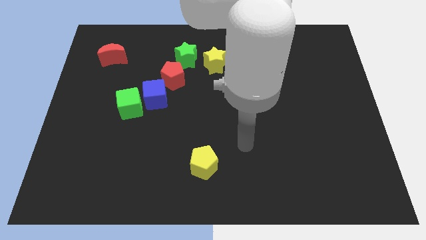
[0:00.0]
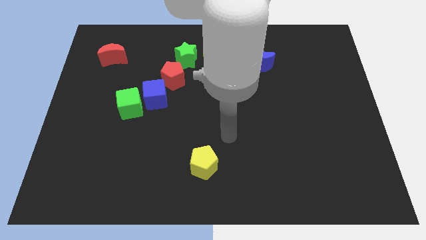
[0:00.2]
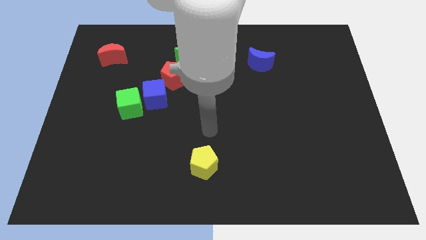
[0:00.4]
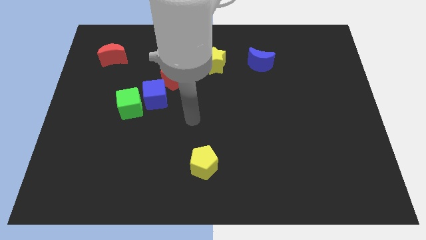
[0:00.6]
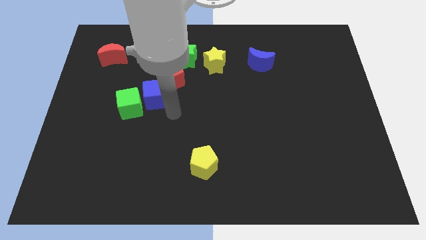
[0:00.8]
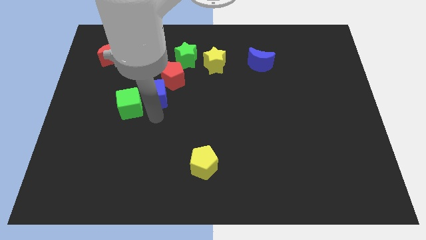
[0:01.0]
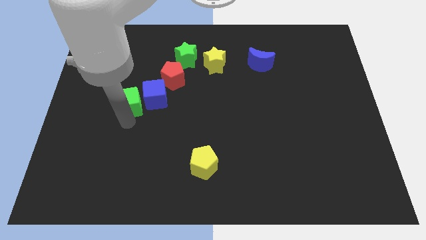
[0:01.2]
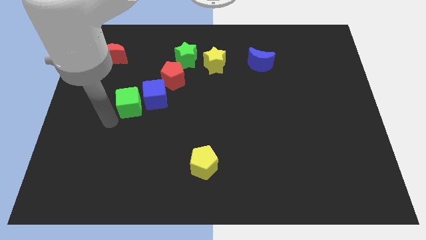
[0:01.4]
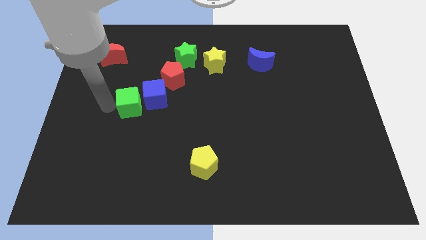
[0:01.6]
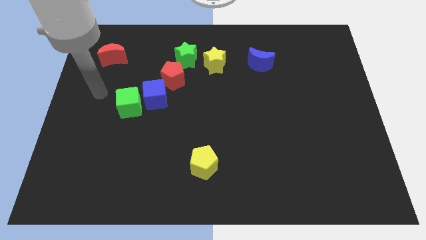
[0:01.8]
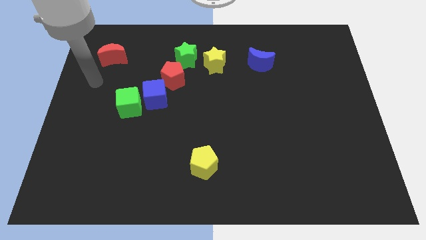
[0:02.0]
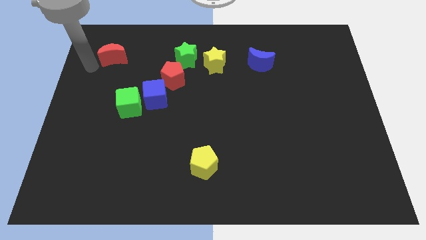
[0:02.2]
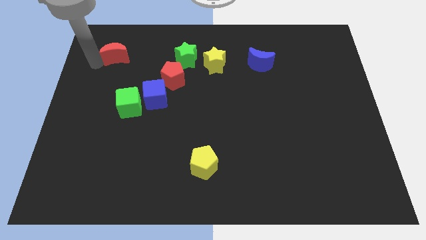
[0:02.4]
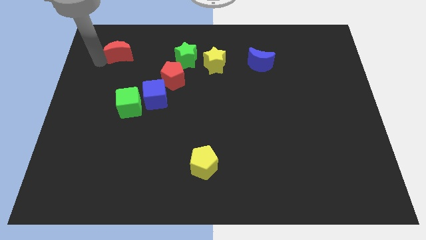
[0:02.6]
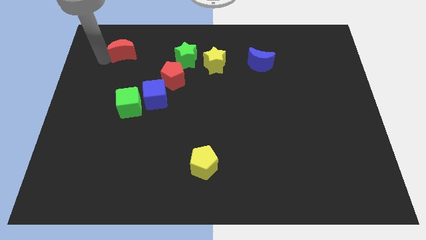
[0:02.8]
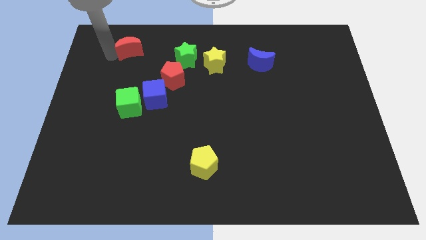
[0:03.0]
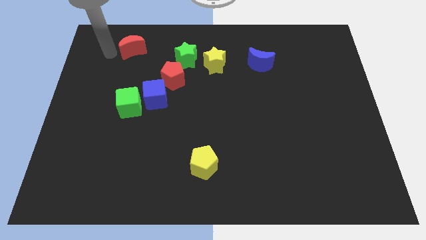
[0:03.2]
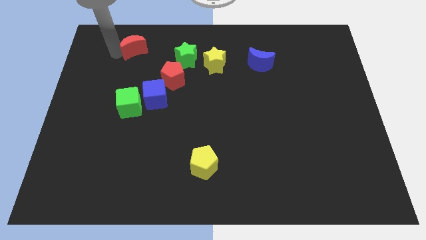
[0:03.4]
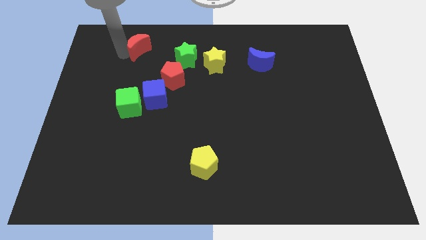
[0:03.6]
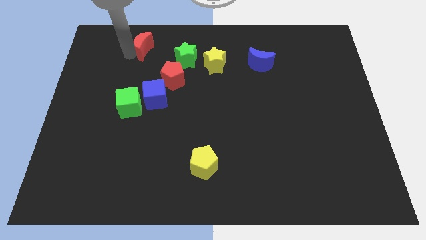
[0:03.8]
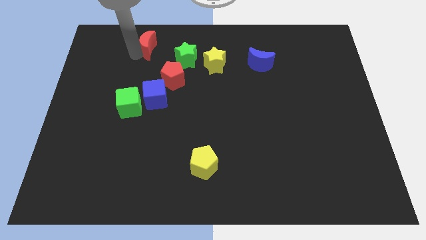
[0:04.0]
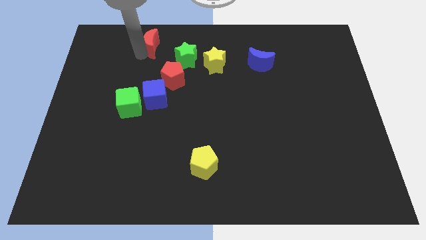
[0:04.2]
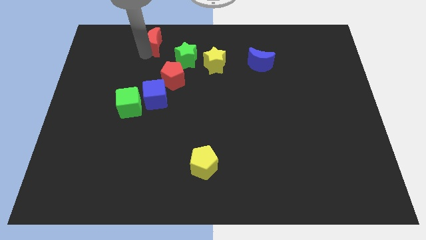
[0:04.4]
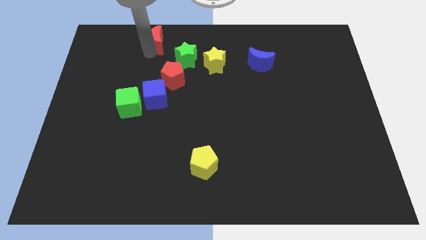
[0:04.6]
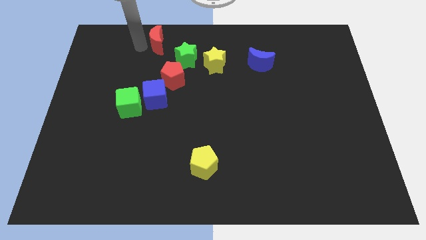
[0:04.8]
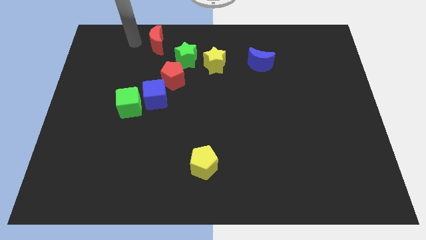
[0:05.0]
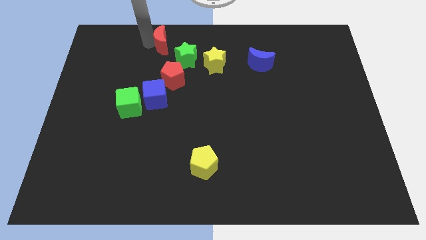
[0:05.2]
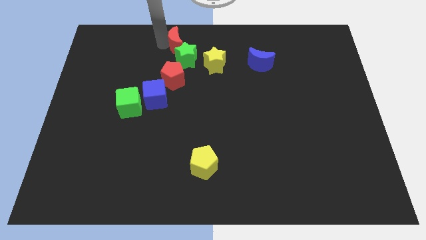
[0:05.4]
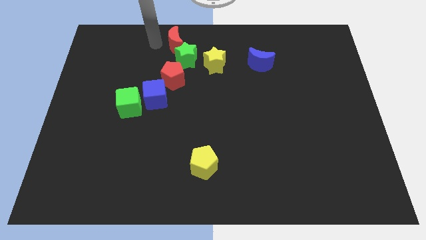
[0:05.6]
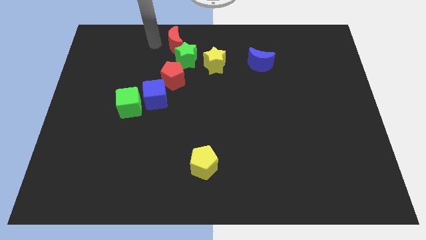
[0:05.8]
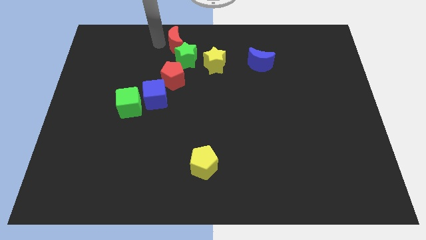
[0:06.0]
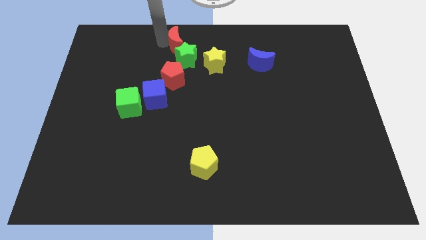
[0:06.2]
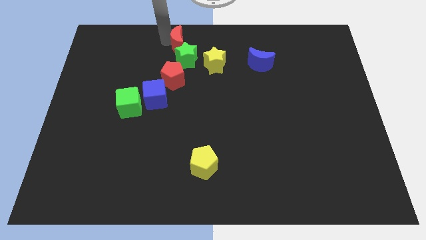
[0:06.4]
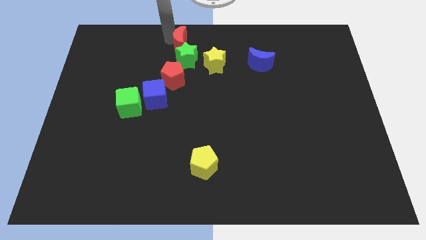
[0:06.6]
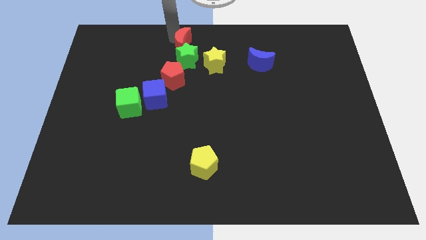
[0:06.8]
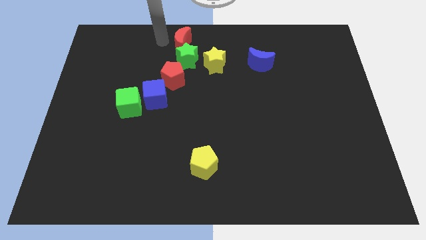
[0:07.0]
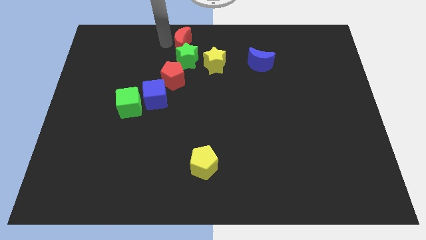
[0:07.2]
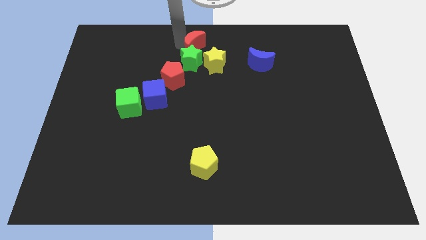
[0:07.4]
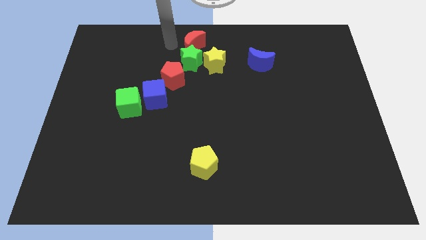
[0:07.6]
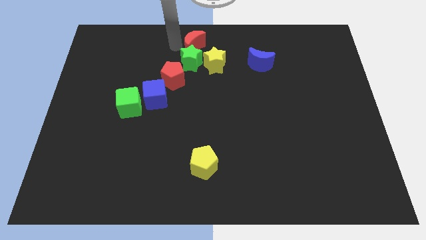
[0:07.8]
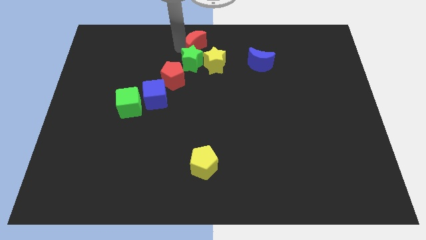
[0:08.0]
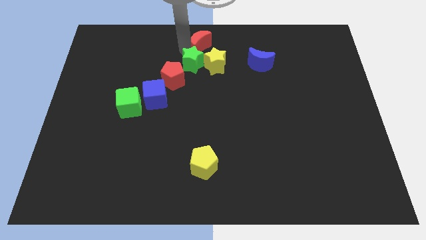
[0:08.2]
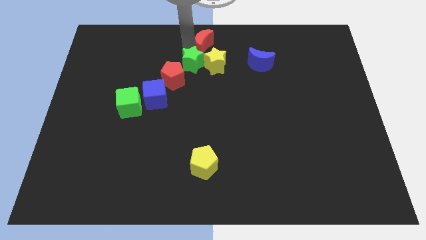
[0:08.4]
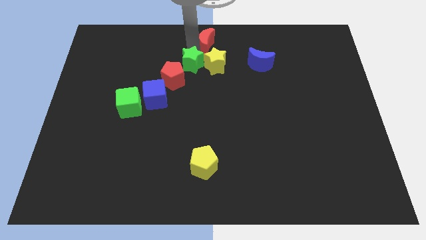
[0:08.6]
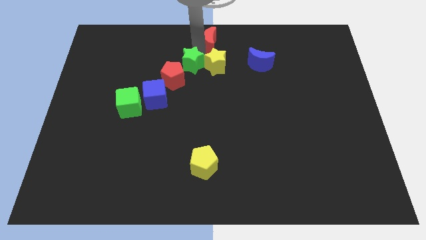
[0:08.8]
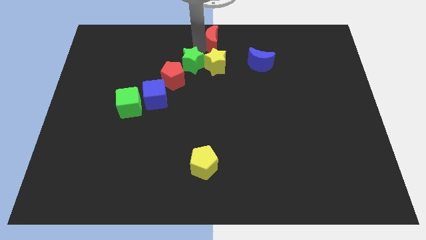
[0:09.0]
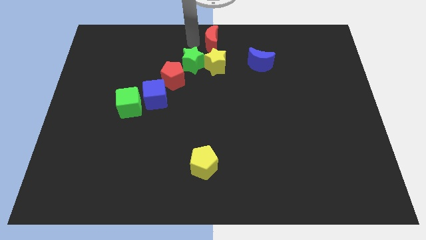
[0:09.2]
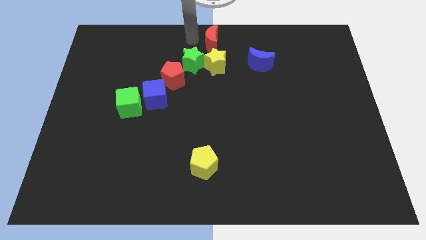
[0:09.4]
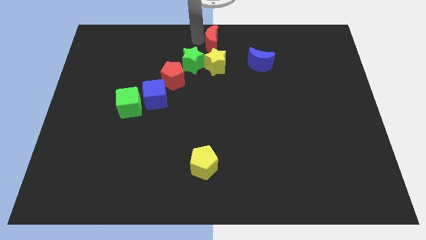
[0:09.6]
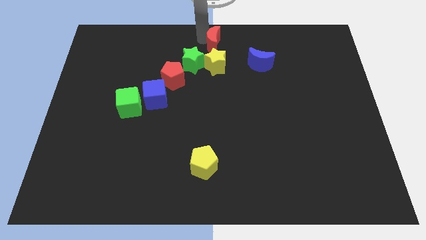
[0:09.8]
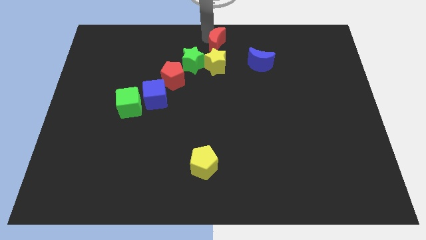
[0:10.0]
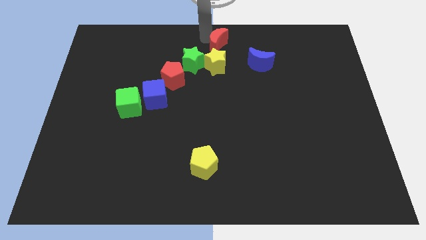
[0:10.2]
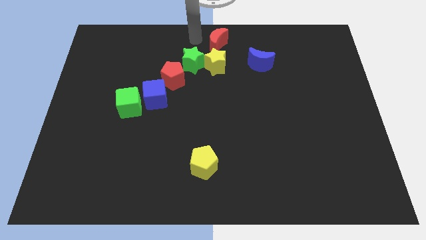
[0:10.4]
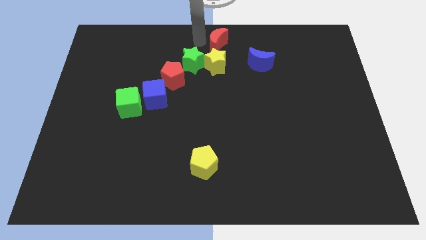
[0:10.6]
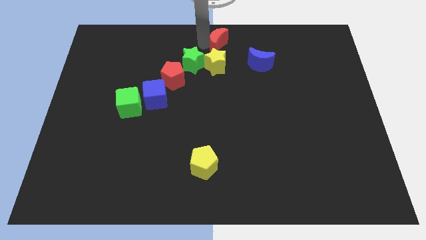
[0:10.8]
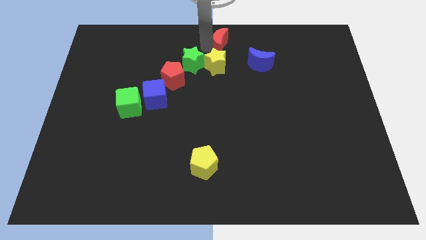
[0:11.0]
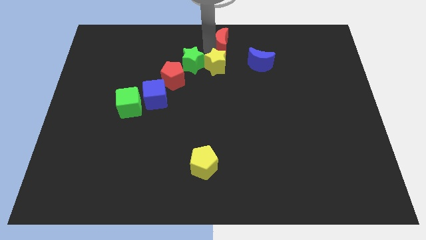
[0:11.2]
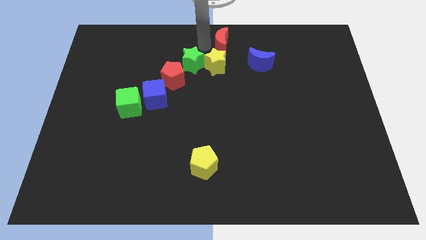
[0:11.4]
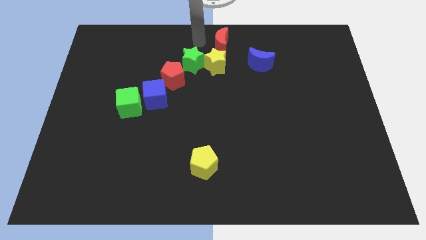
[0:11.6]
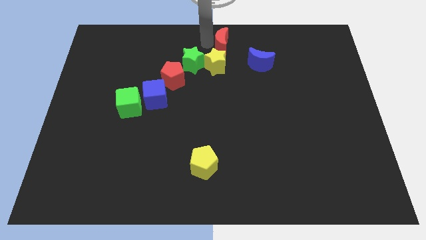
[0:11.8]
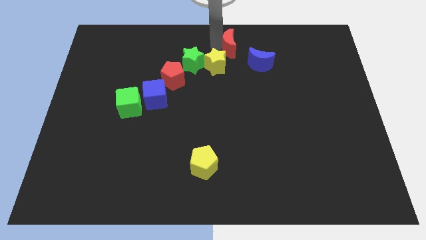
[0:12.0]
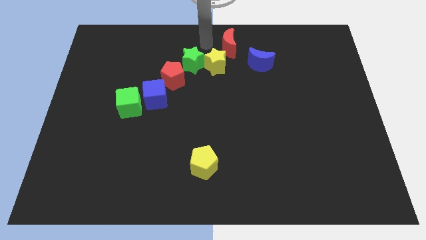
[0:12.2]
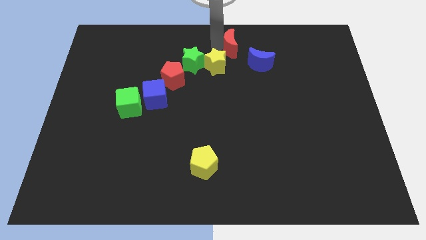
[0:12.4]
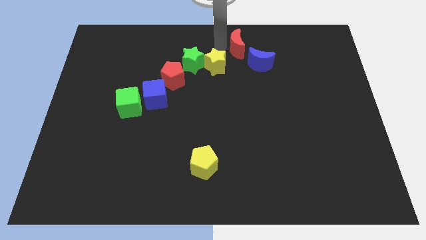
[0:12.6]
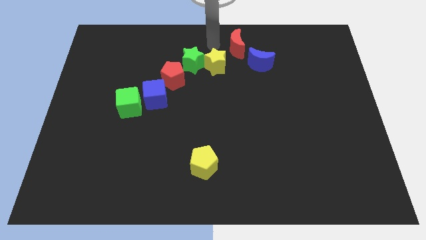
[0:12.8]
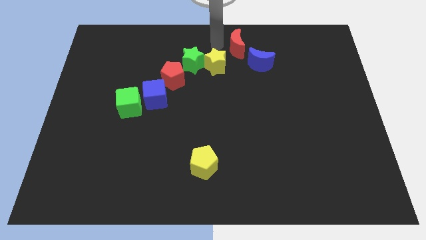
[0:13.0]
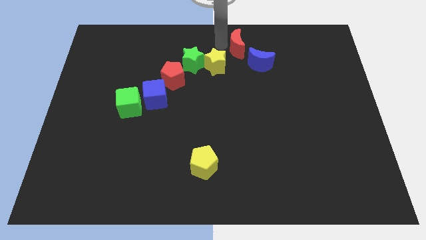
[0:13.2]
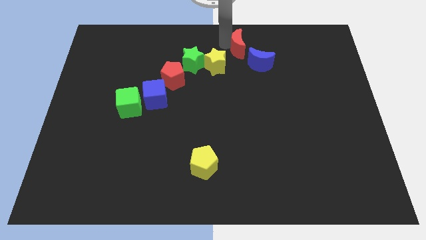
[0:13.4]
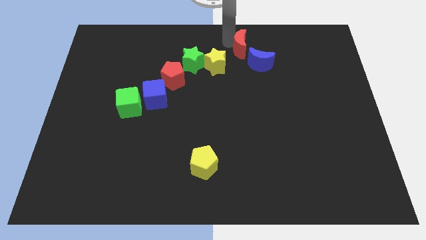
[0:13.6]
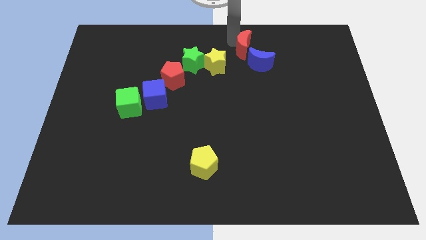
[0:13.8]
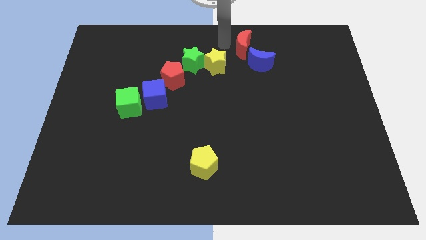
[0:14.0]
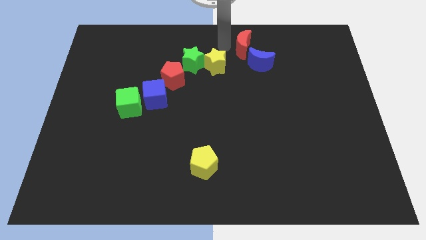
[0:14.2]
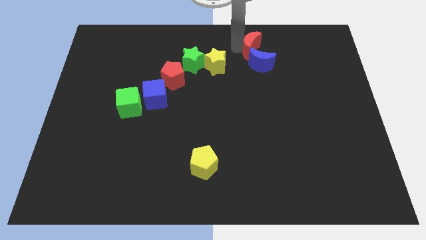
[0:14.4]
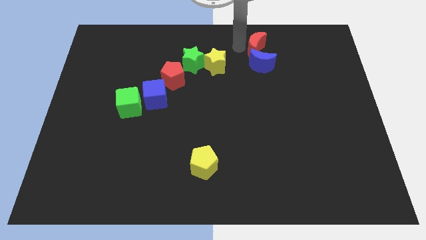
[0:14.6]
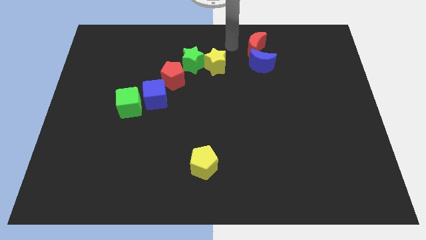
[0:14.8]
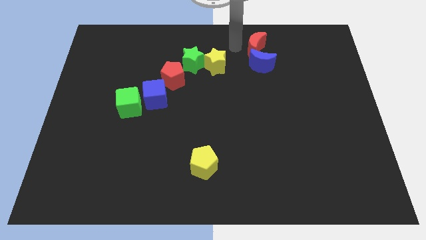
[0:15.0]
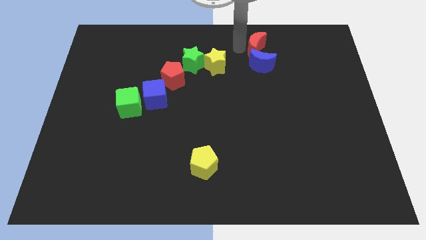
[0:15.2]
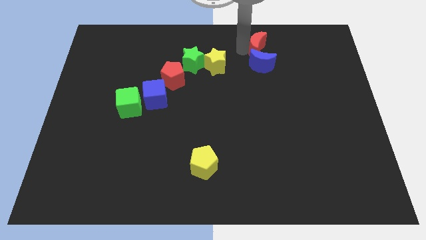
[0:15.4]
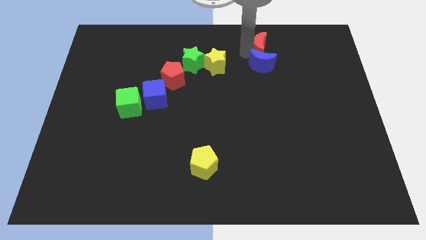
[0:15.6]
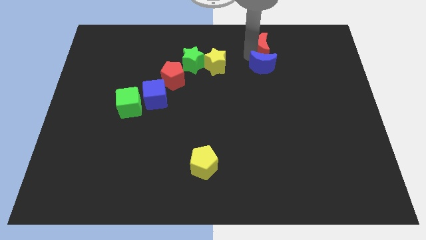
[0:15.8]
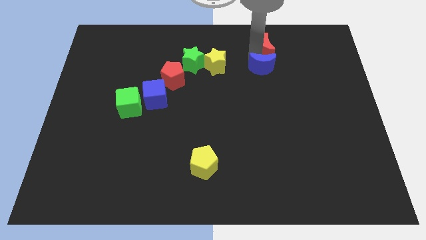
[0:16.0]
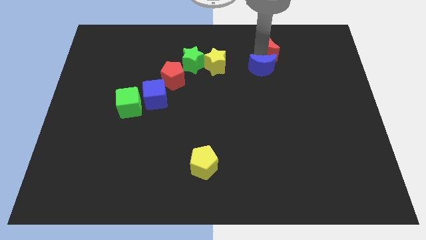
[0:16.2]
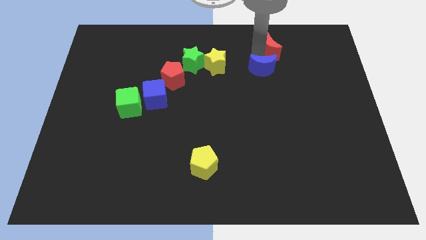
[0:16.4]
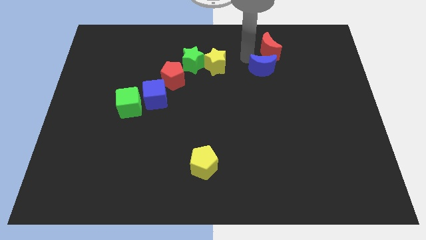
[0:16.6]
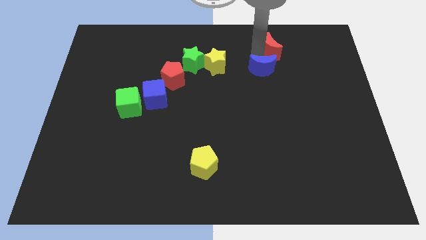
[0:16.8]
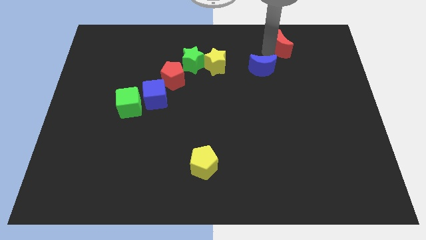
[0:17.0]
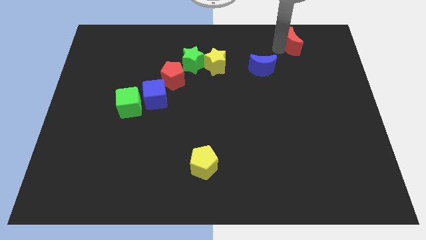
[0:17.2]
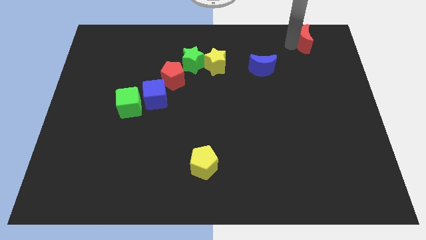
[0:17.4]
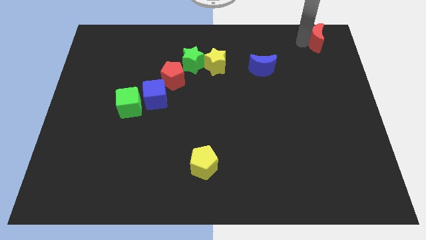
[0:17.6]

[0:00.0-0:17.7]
slide the red moon to the top right
